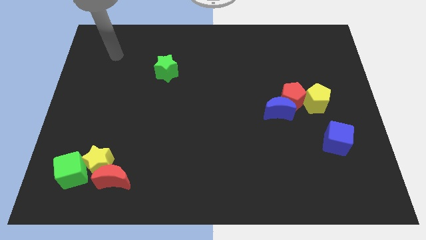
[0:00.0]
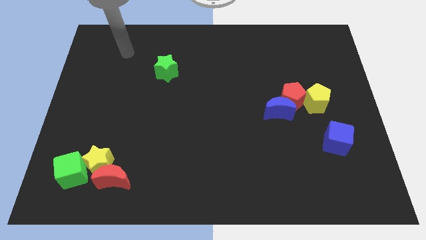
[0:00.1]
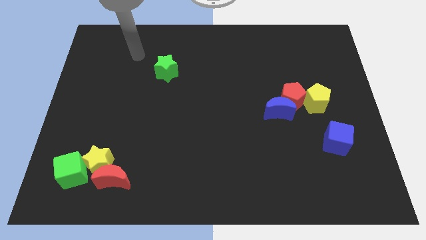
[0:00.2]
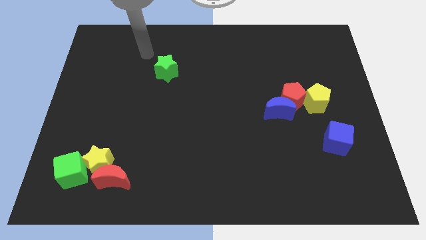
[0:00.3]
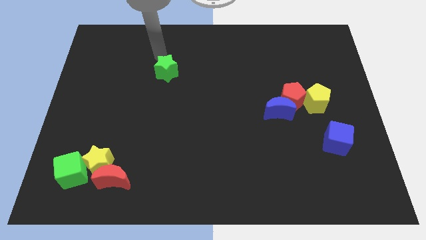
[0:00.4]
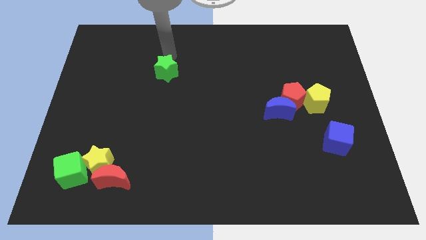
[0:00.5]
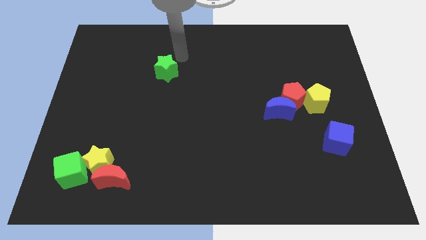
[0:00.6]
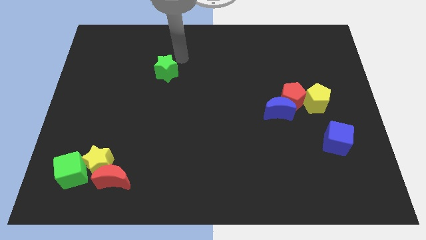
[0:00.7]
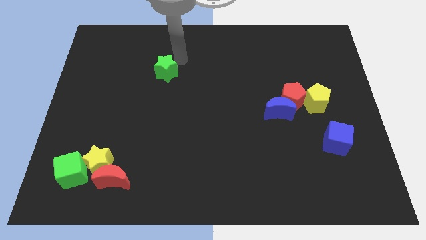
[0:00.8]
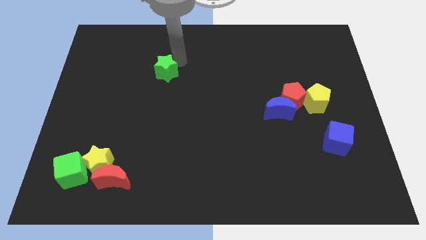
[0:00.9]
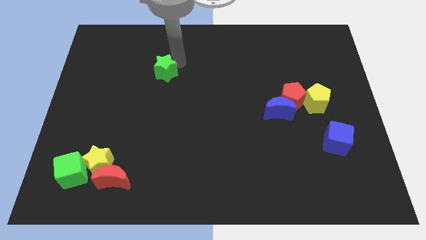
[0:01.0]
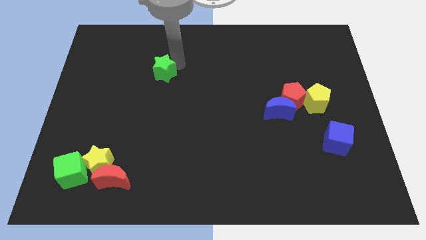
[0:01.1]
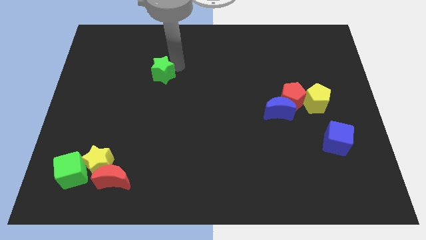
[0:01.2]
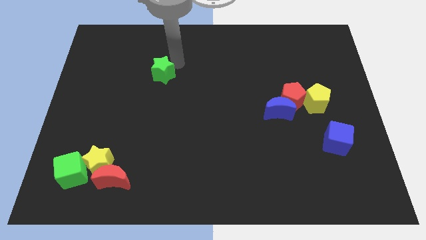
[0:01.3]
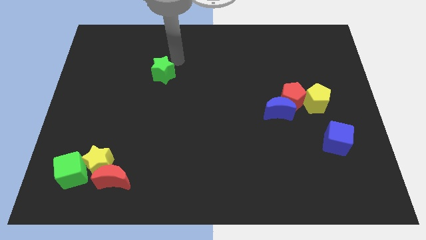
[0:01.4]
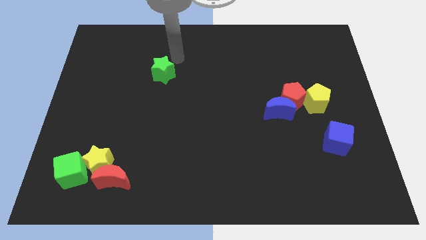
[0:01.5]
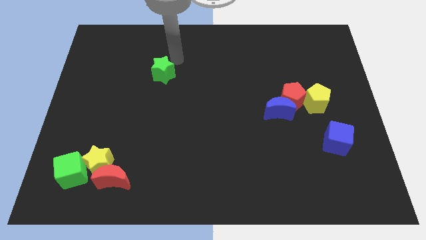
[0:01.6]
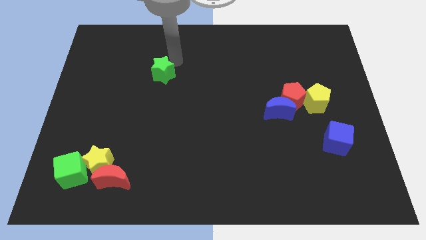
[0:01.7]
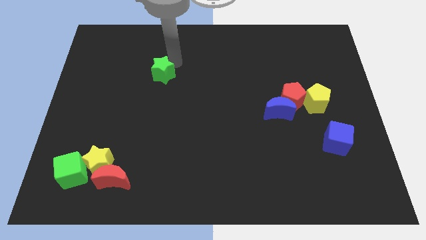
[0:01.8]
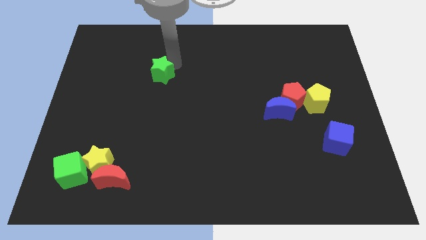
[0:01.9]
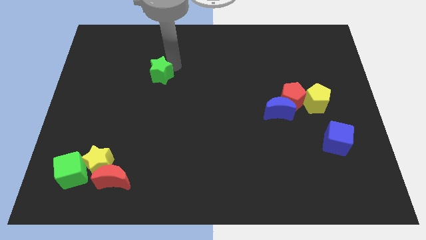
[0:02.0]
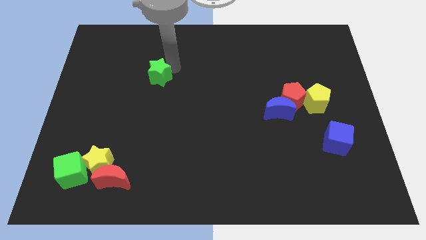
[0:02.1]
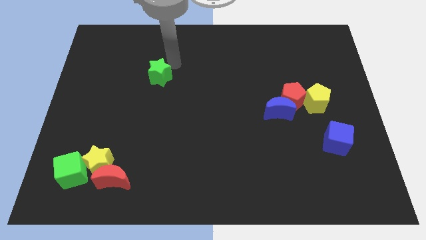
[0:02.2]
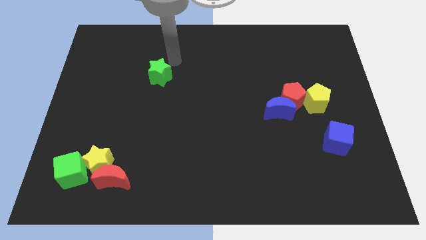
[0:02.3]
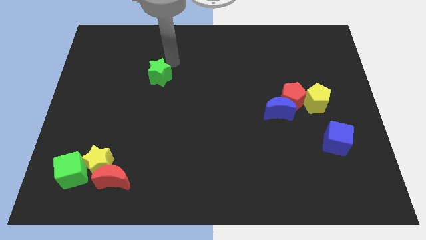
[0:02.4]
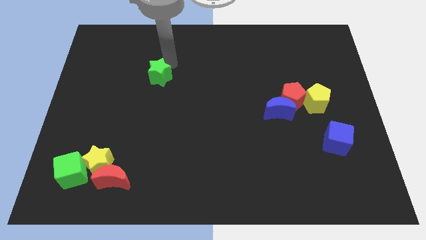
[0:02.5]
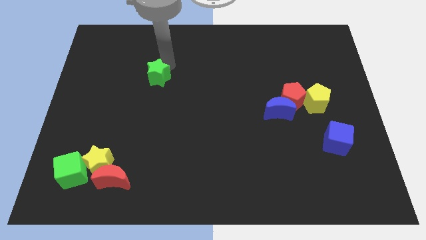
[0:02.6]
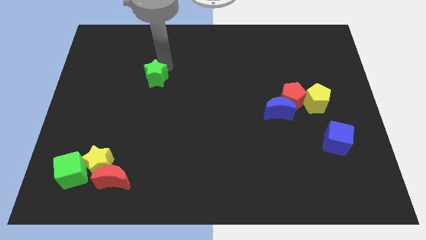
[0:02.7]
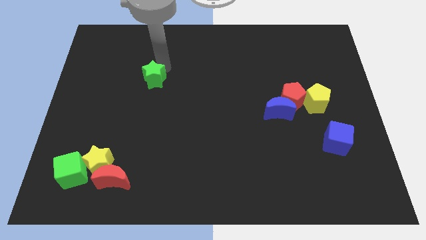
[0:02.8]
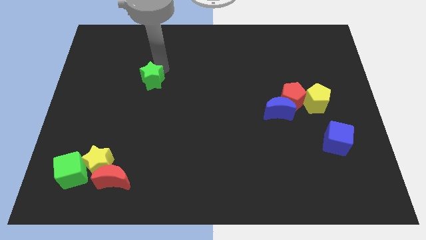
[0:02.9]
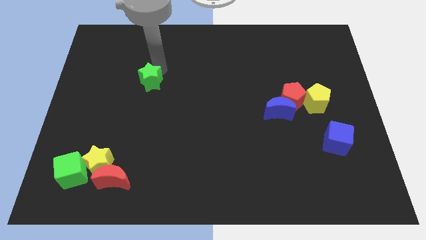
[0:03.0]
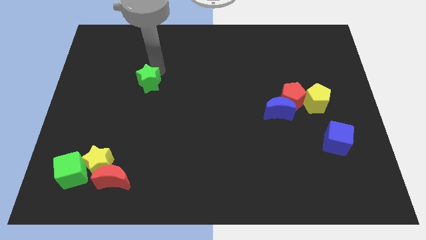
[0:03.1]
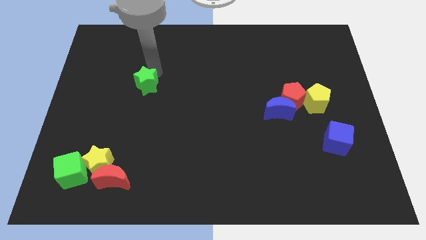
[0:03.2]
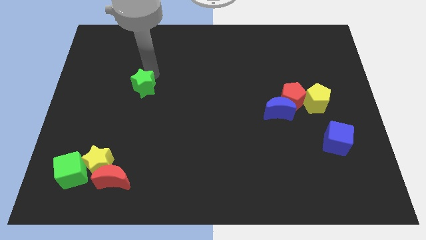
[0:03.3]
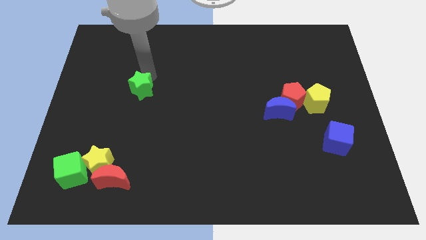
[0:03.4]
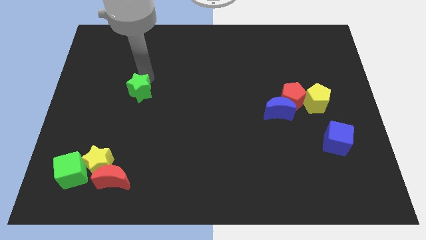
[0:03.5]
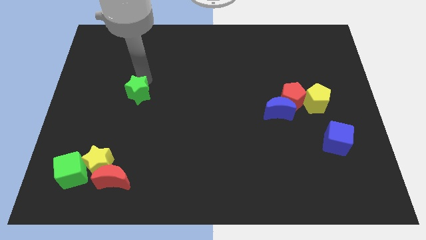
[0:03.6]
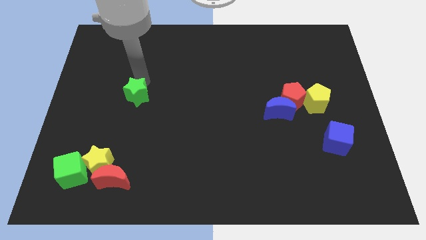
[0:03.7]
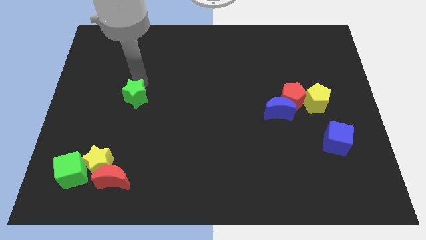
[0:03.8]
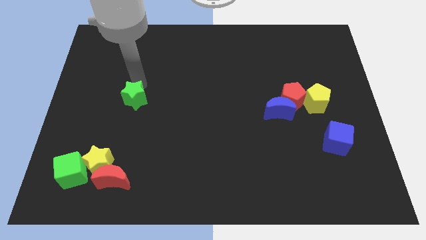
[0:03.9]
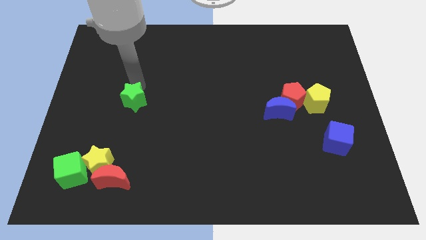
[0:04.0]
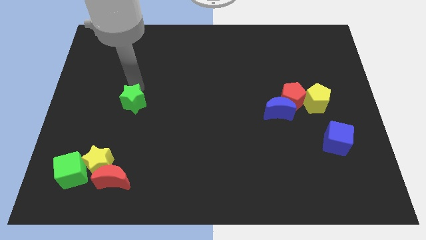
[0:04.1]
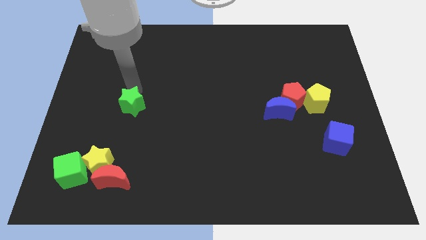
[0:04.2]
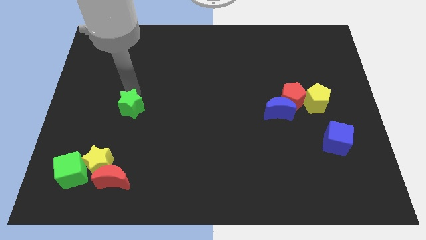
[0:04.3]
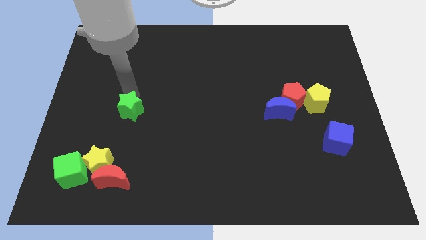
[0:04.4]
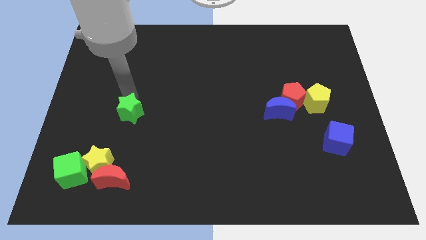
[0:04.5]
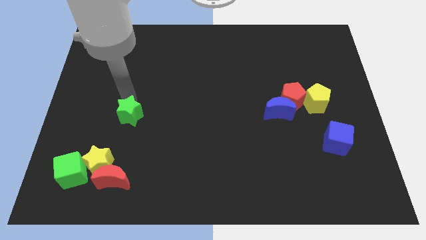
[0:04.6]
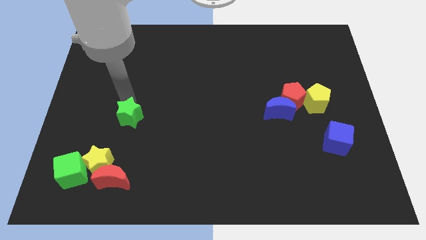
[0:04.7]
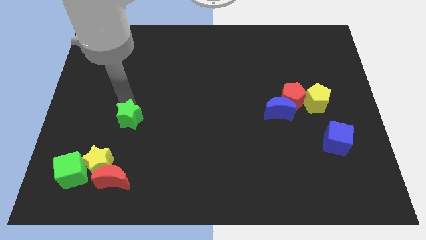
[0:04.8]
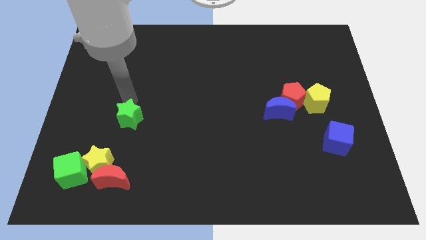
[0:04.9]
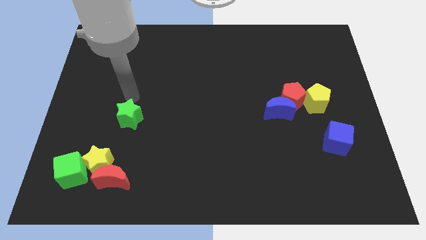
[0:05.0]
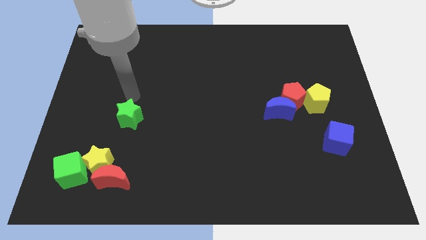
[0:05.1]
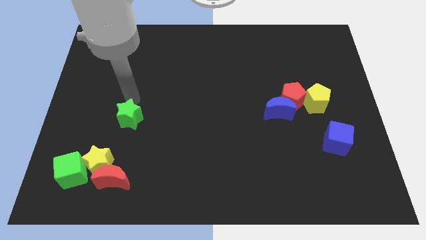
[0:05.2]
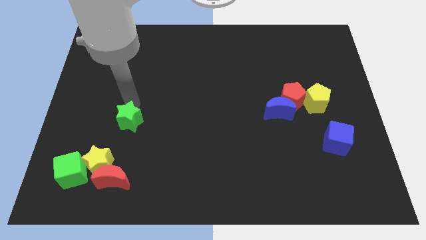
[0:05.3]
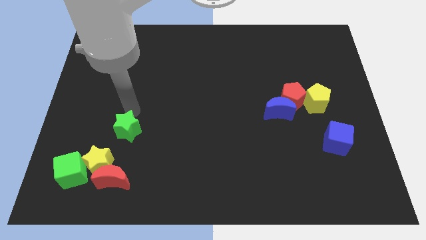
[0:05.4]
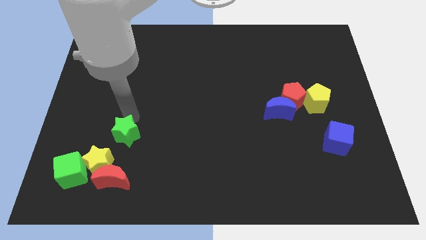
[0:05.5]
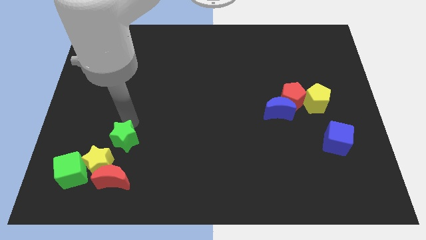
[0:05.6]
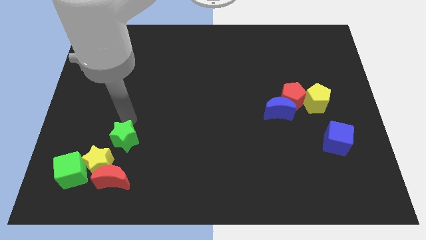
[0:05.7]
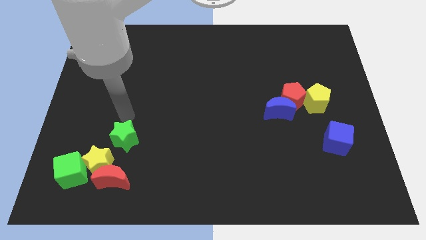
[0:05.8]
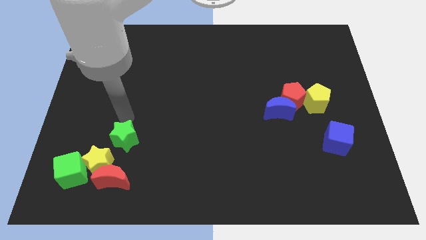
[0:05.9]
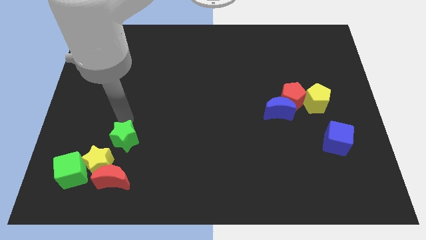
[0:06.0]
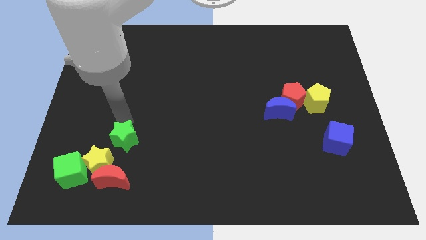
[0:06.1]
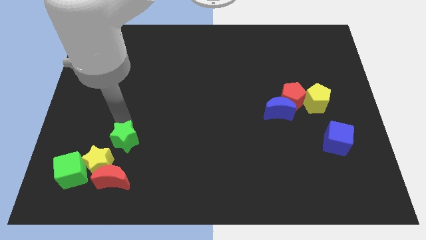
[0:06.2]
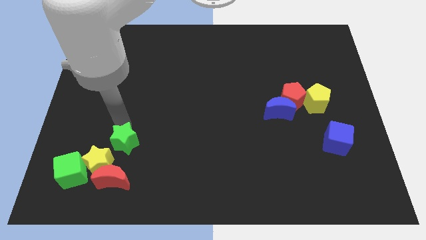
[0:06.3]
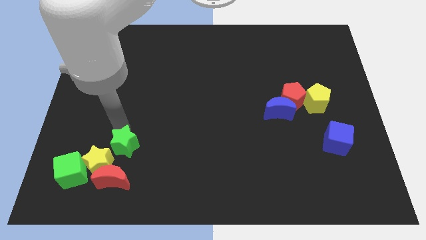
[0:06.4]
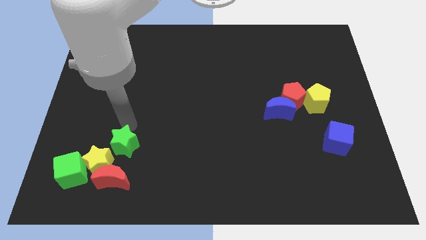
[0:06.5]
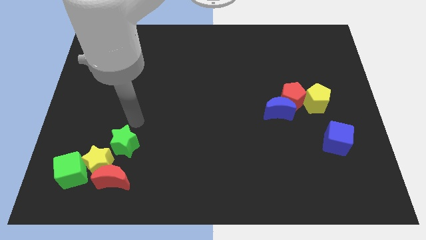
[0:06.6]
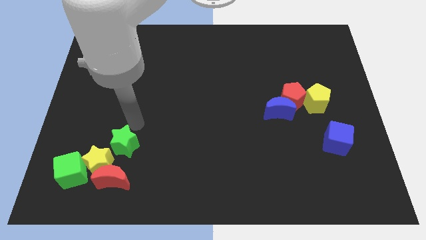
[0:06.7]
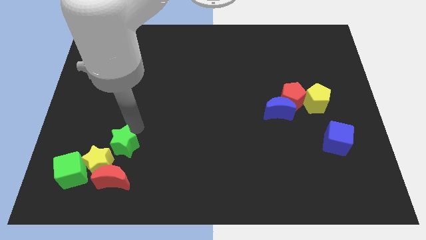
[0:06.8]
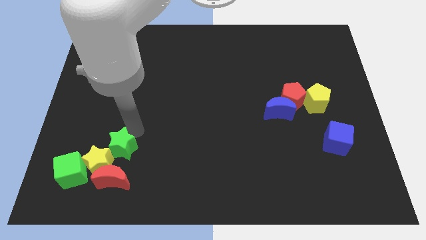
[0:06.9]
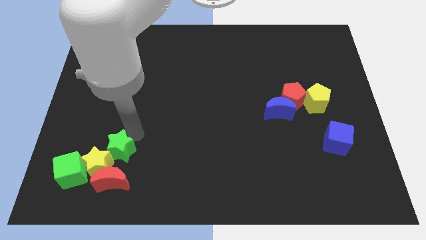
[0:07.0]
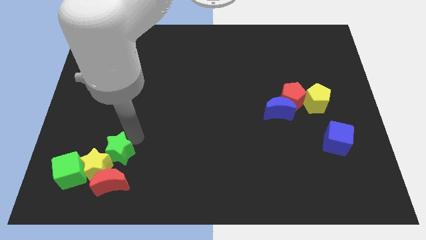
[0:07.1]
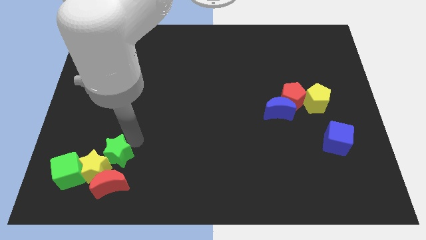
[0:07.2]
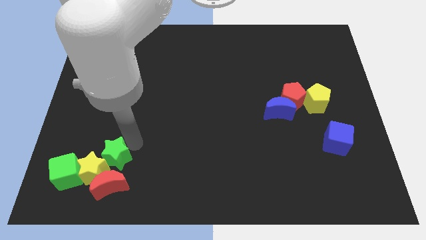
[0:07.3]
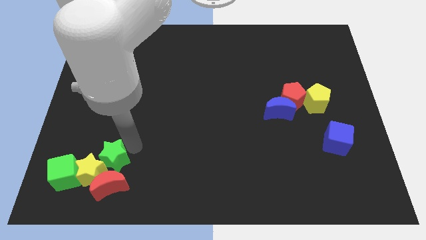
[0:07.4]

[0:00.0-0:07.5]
move the green star to the red moon
